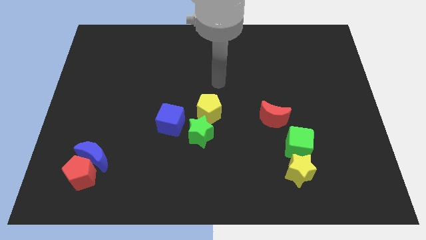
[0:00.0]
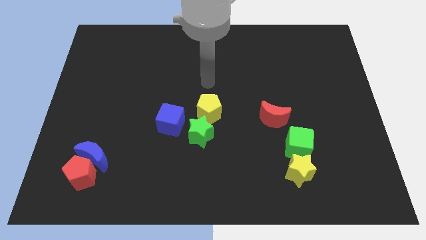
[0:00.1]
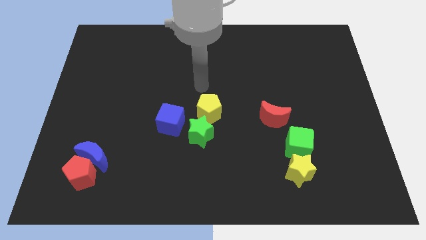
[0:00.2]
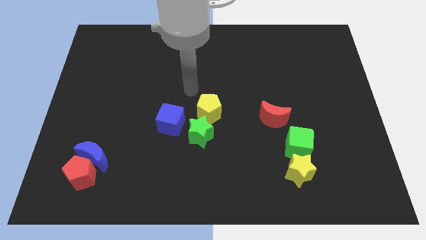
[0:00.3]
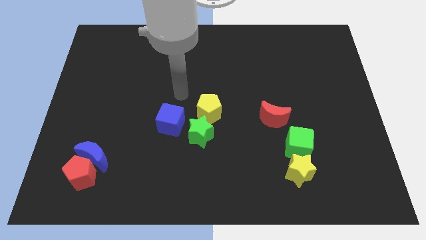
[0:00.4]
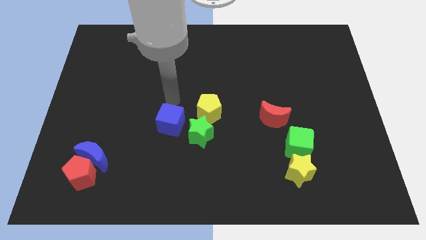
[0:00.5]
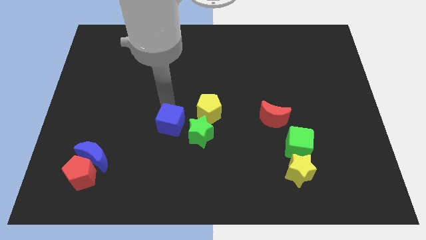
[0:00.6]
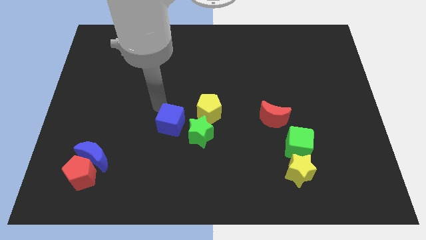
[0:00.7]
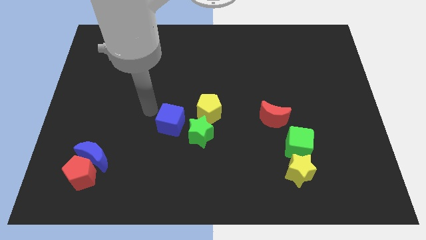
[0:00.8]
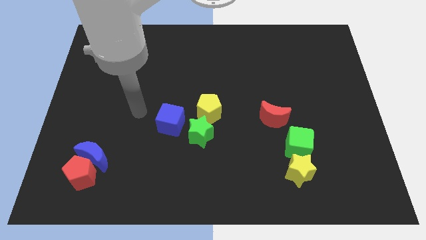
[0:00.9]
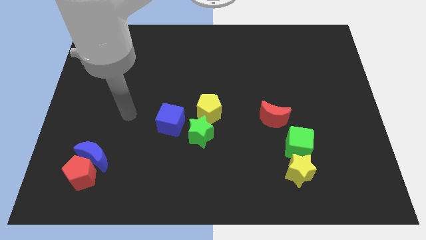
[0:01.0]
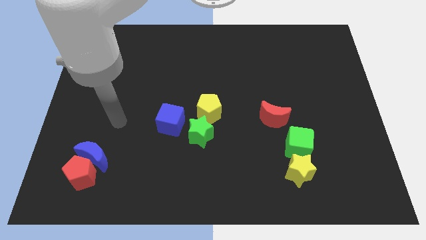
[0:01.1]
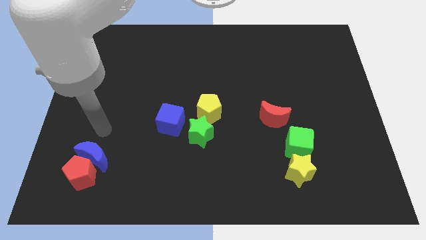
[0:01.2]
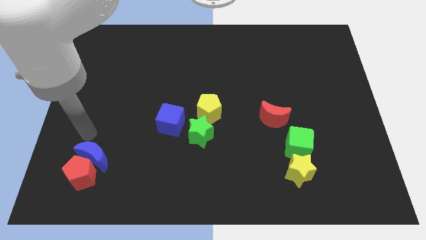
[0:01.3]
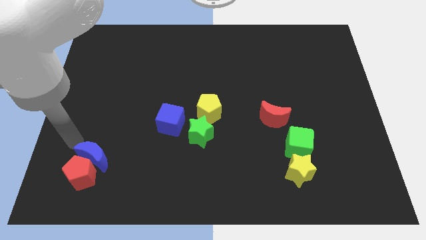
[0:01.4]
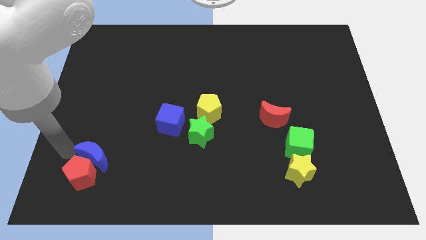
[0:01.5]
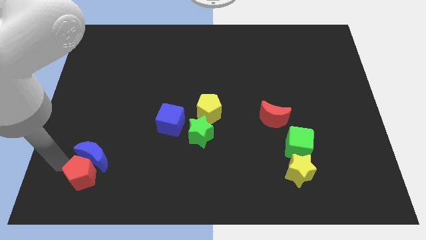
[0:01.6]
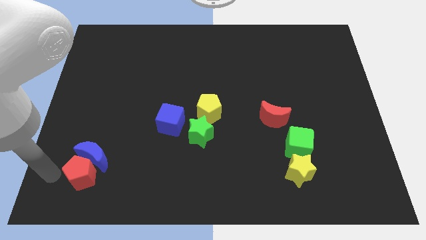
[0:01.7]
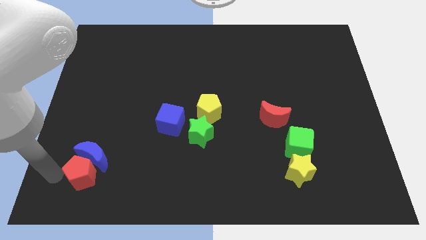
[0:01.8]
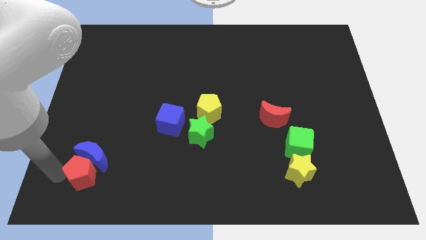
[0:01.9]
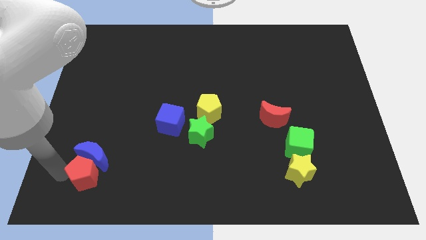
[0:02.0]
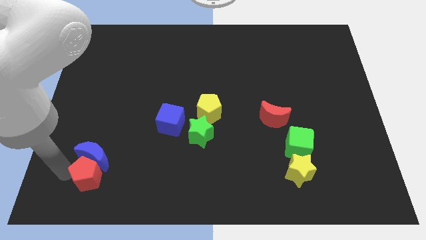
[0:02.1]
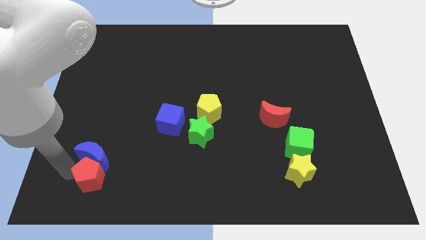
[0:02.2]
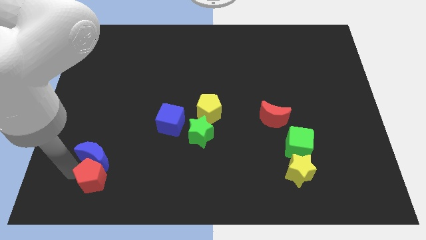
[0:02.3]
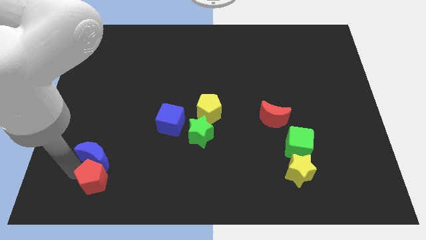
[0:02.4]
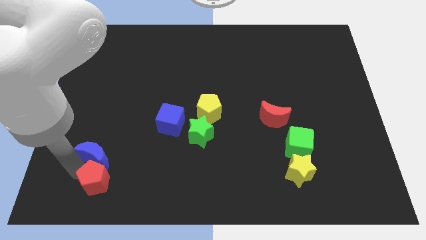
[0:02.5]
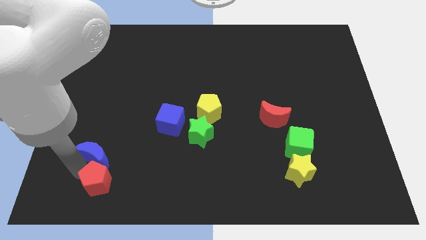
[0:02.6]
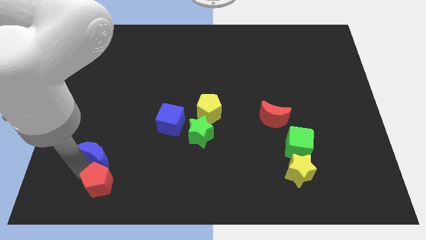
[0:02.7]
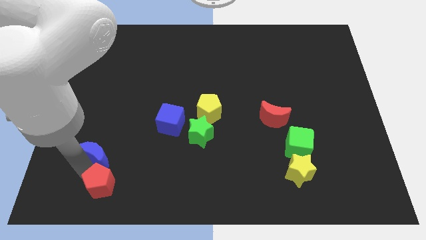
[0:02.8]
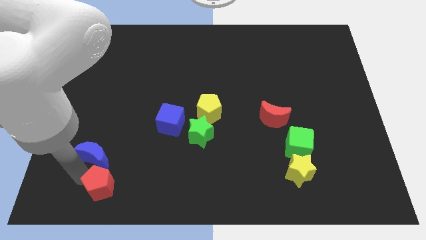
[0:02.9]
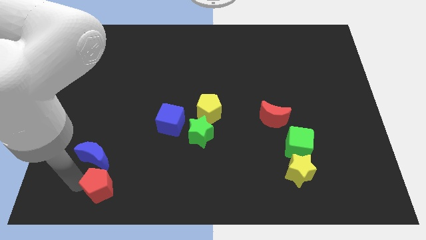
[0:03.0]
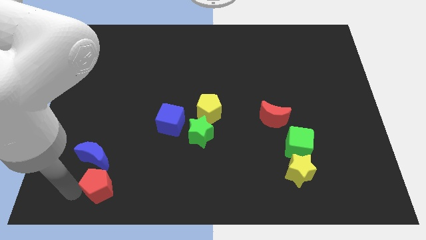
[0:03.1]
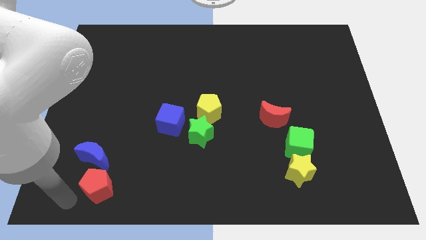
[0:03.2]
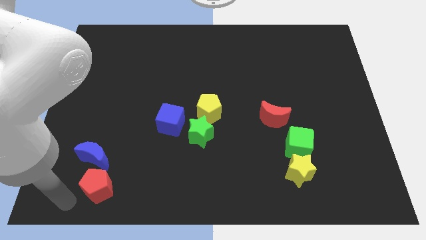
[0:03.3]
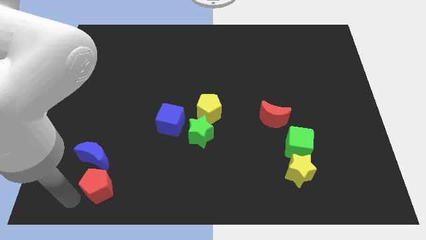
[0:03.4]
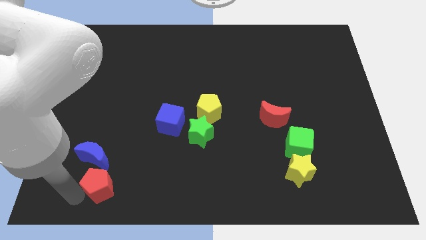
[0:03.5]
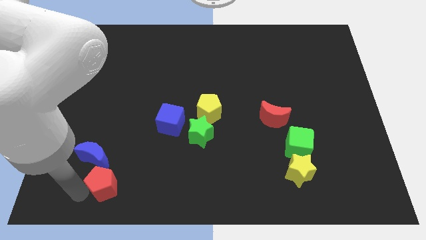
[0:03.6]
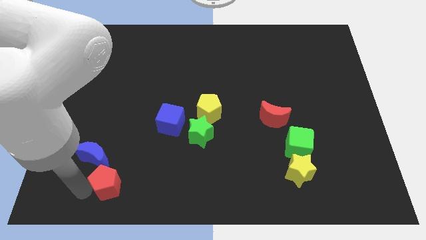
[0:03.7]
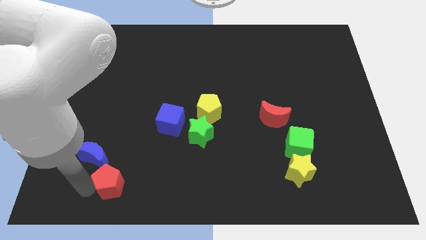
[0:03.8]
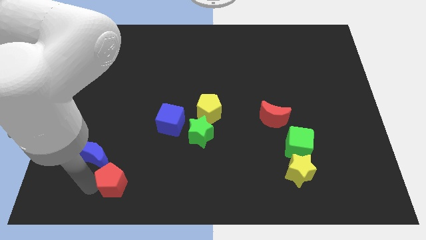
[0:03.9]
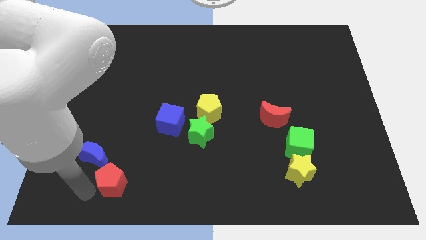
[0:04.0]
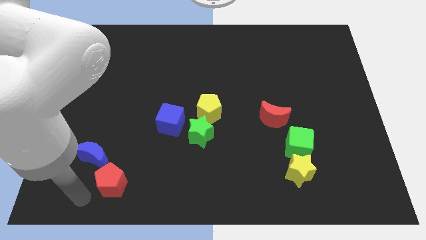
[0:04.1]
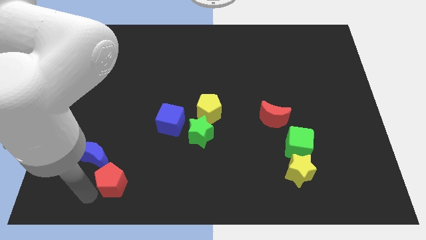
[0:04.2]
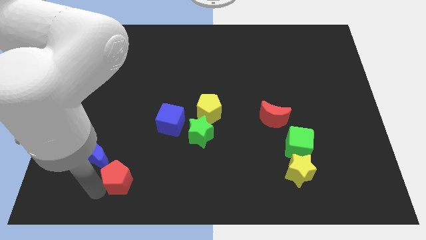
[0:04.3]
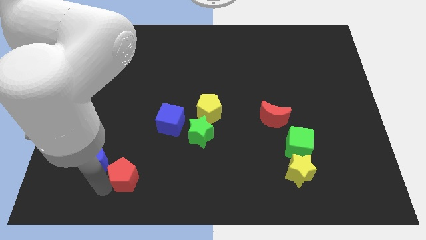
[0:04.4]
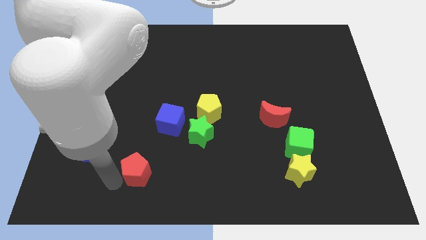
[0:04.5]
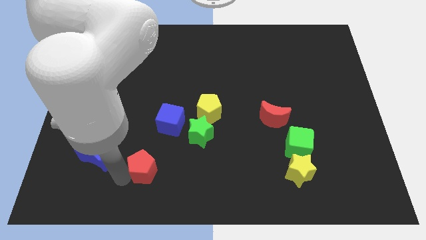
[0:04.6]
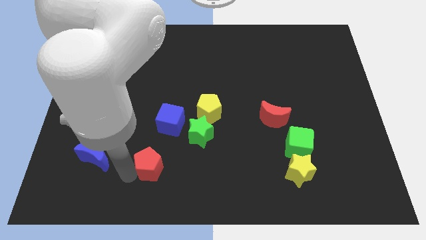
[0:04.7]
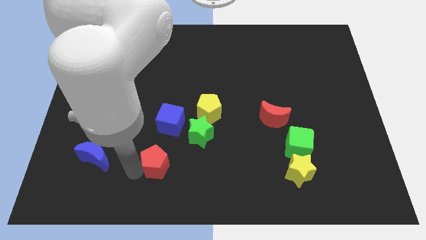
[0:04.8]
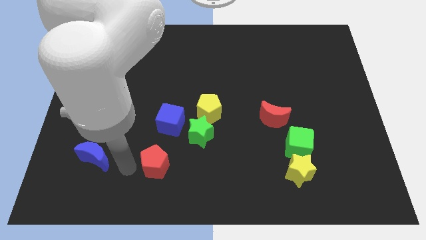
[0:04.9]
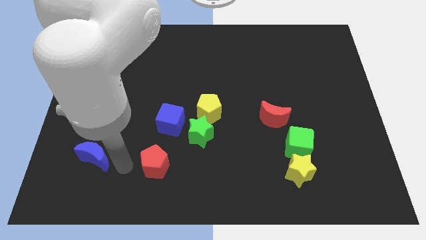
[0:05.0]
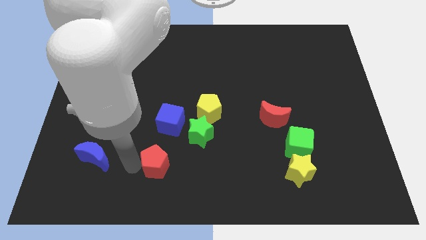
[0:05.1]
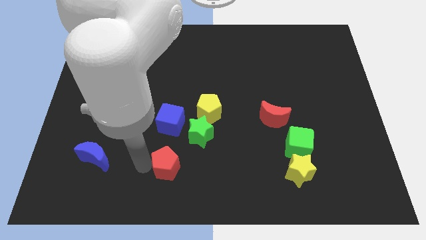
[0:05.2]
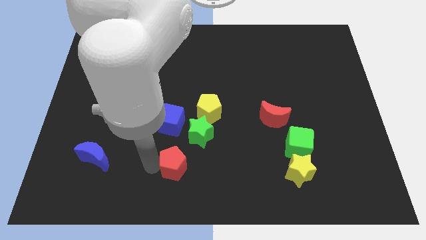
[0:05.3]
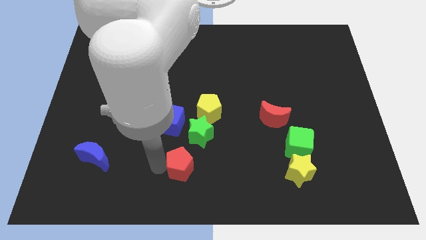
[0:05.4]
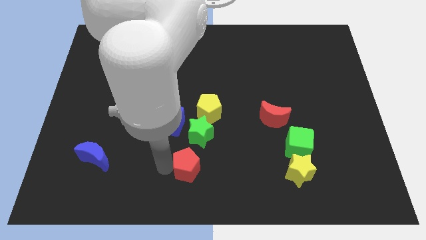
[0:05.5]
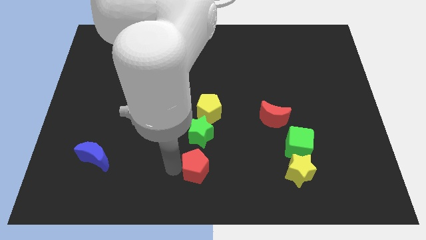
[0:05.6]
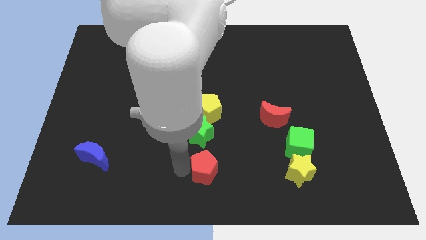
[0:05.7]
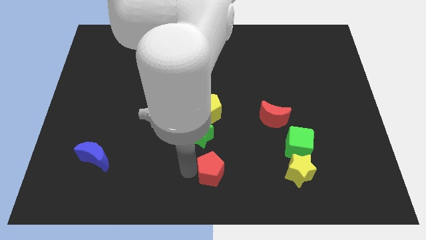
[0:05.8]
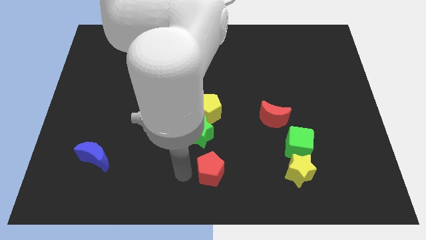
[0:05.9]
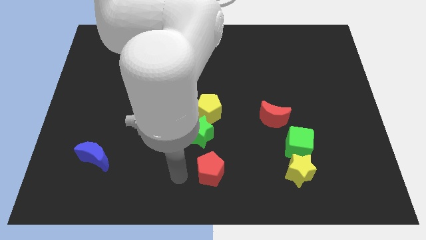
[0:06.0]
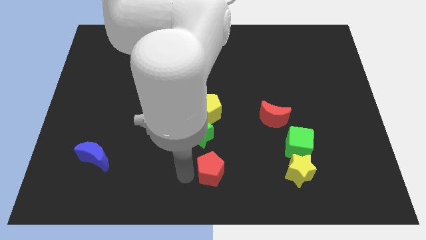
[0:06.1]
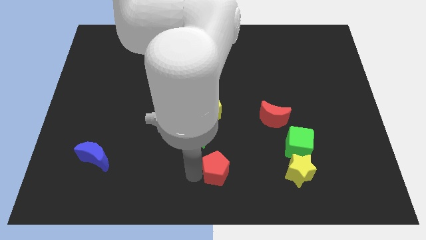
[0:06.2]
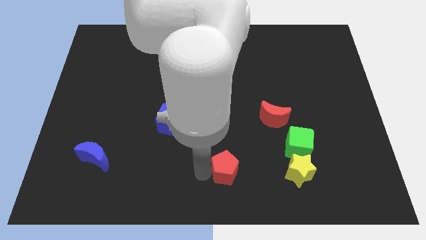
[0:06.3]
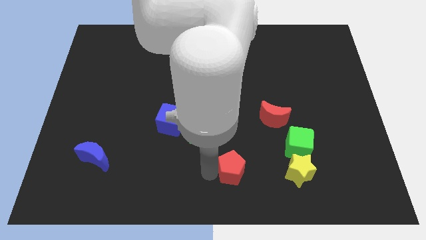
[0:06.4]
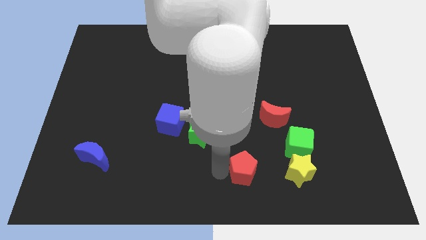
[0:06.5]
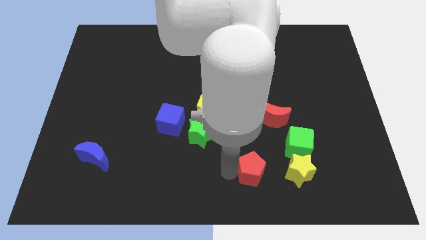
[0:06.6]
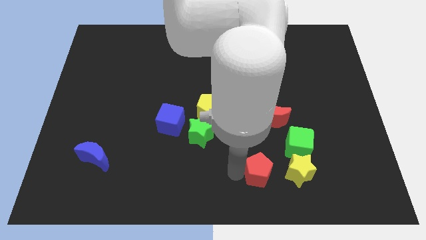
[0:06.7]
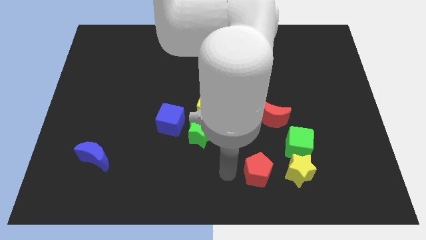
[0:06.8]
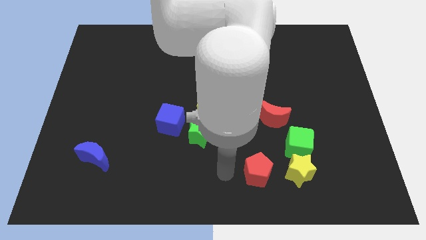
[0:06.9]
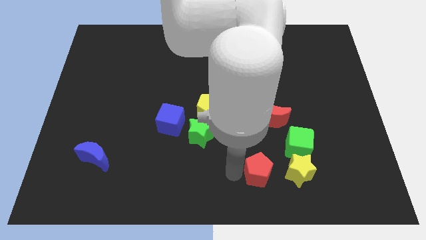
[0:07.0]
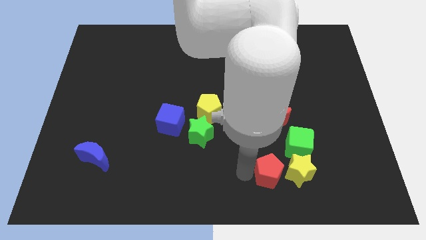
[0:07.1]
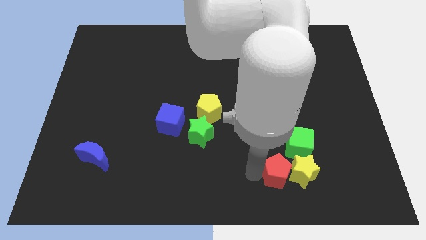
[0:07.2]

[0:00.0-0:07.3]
push the red pentagon next to the yellow star

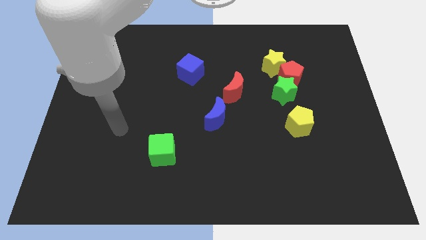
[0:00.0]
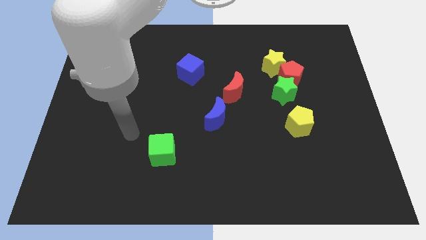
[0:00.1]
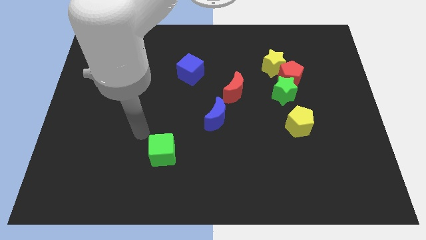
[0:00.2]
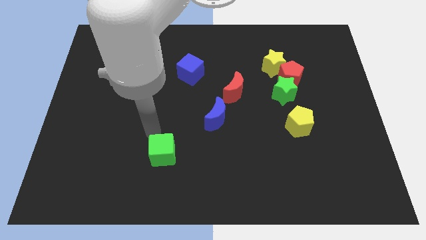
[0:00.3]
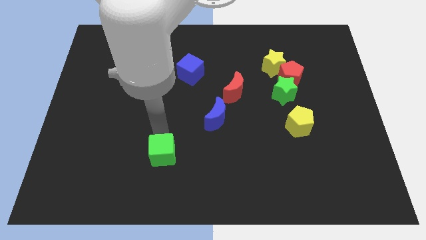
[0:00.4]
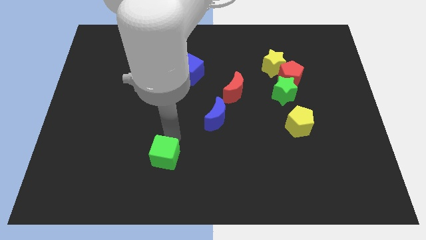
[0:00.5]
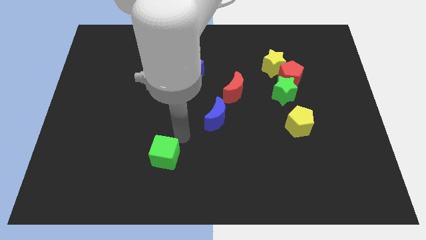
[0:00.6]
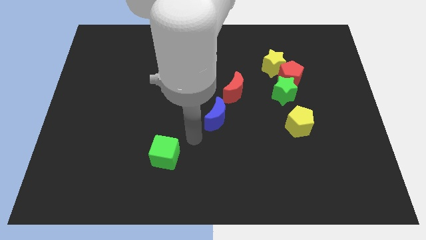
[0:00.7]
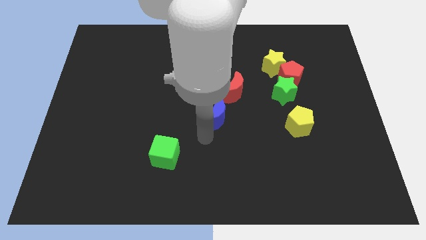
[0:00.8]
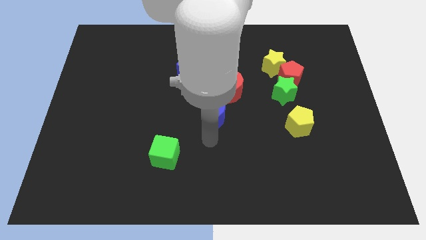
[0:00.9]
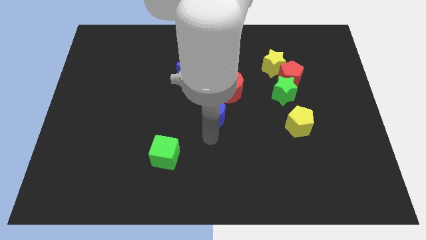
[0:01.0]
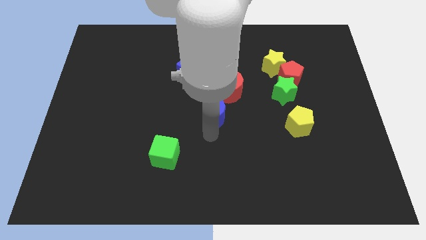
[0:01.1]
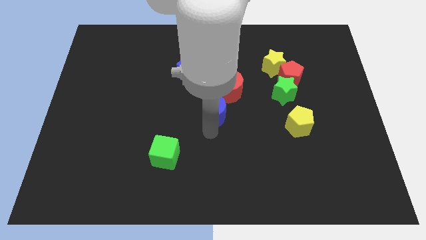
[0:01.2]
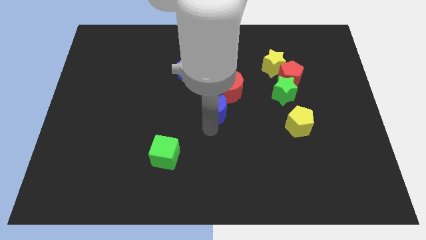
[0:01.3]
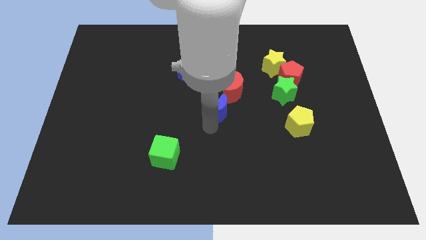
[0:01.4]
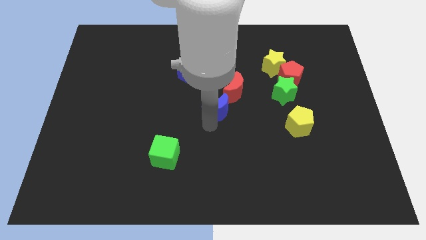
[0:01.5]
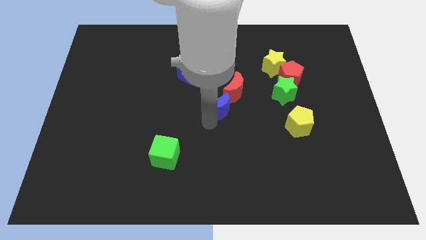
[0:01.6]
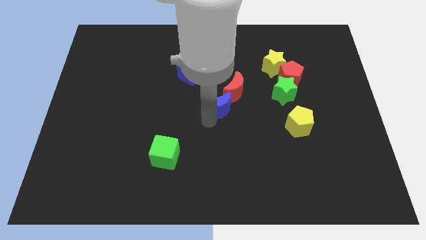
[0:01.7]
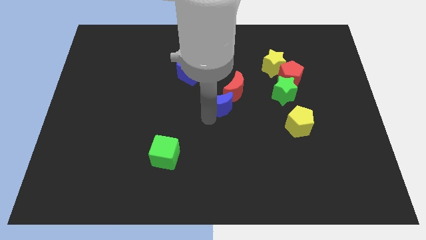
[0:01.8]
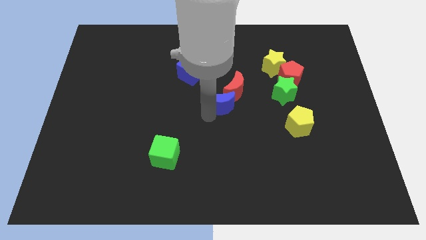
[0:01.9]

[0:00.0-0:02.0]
push the blue moon next to the red moon
